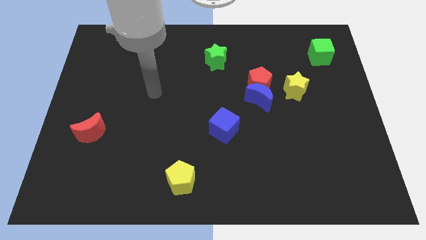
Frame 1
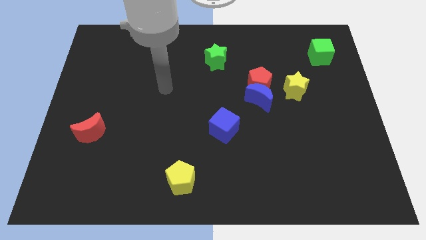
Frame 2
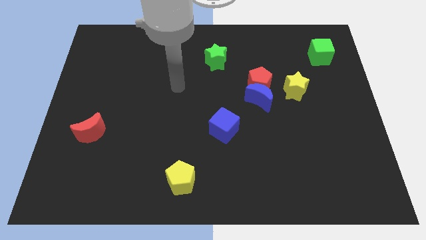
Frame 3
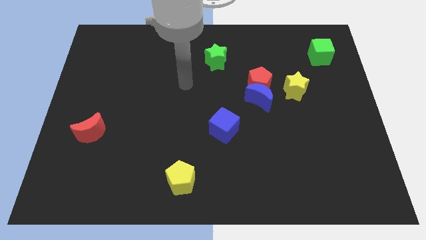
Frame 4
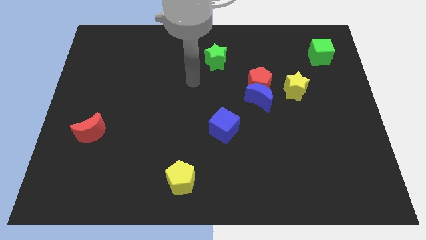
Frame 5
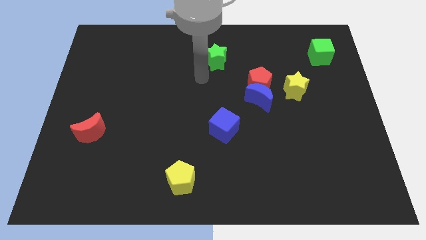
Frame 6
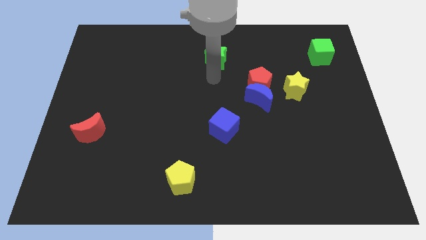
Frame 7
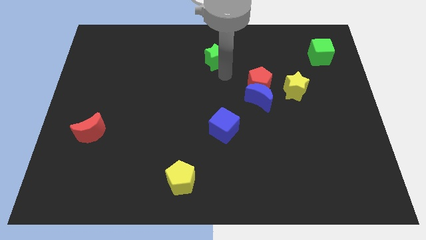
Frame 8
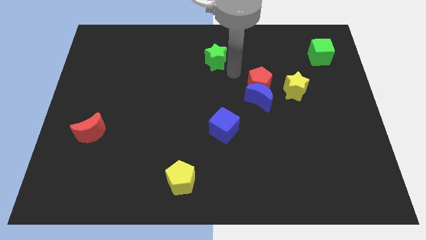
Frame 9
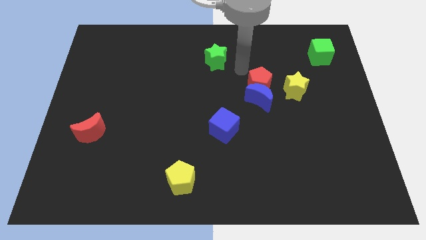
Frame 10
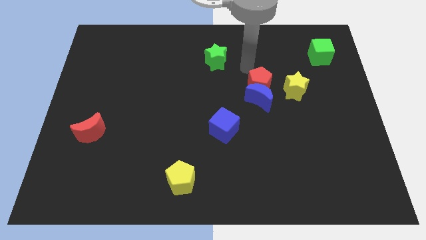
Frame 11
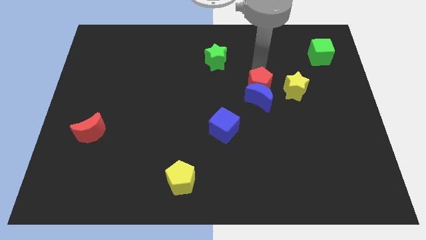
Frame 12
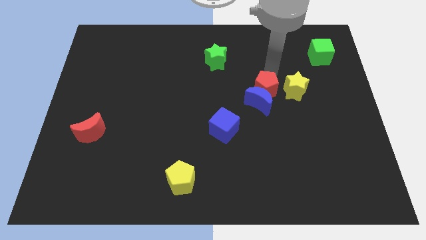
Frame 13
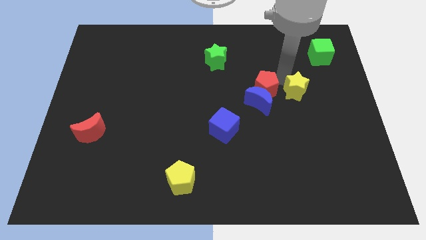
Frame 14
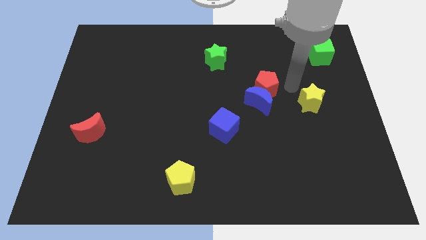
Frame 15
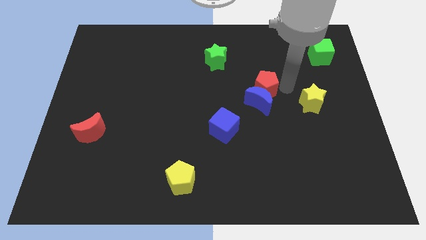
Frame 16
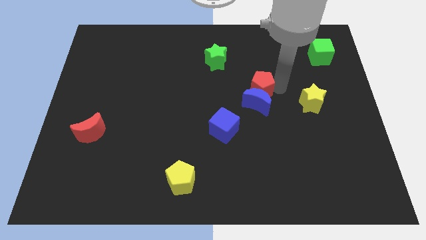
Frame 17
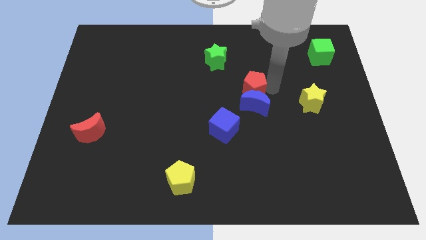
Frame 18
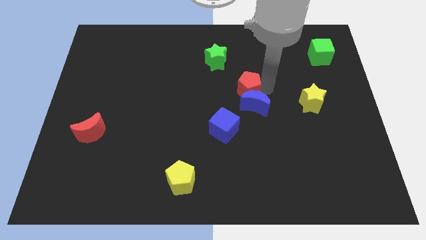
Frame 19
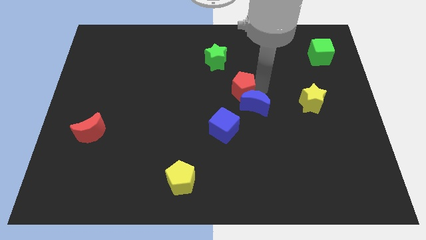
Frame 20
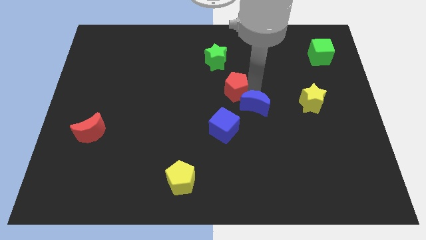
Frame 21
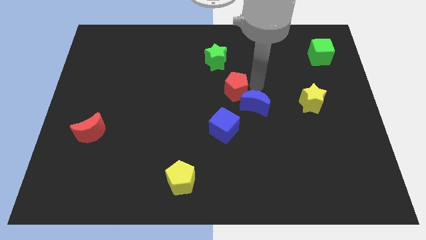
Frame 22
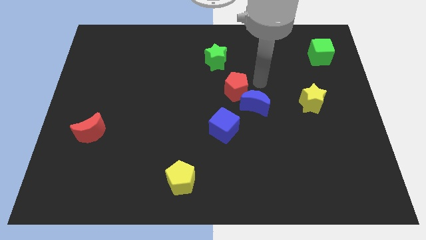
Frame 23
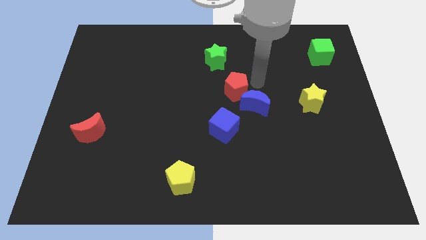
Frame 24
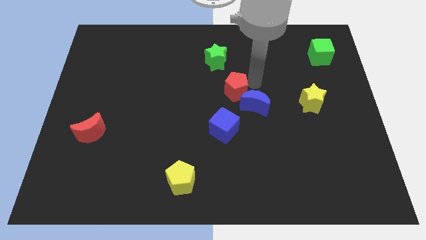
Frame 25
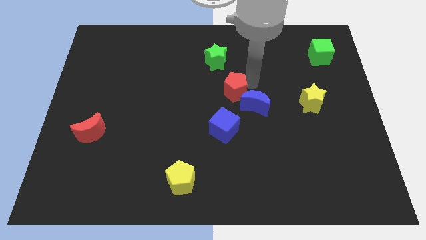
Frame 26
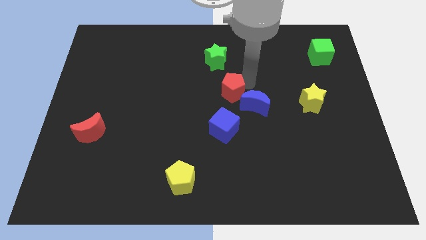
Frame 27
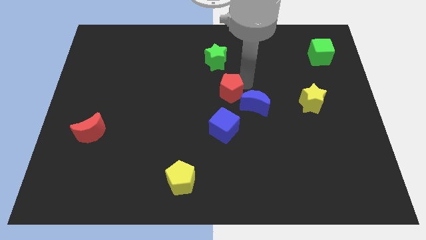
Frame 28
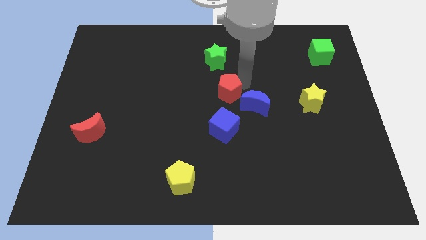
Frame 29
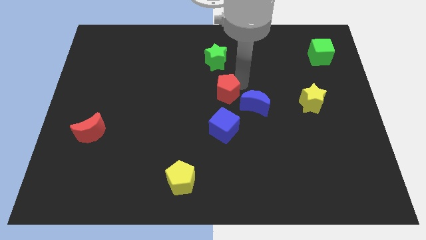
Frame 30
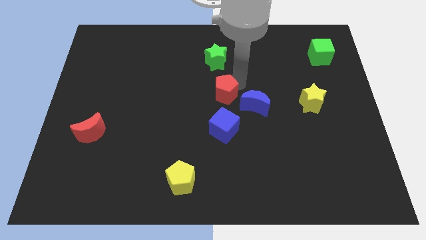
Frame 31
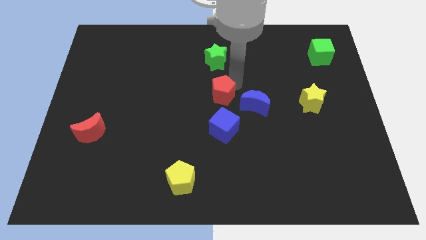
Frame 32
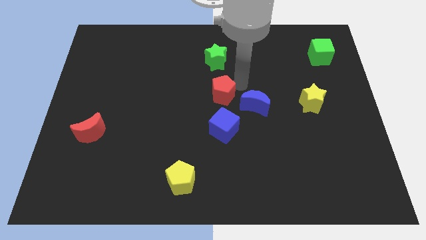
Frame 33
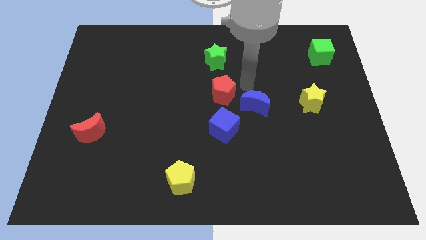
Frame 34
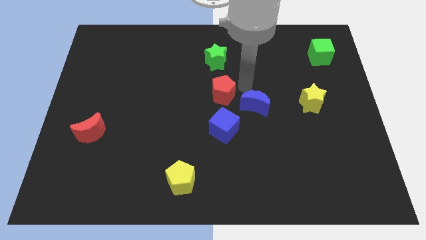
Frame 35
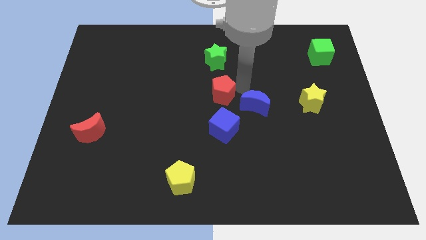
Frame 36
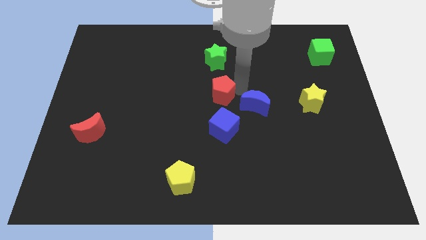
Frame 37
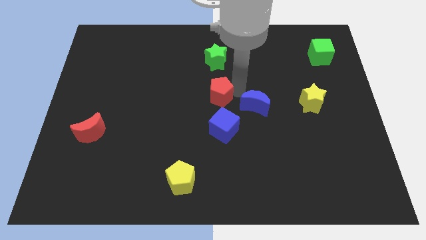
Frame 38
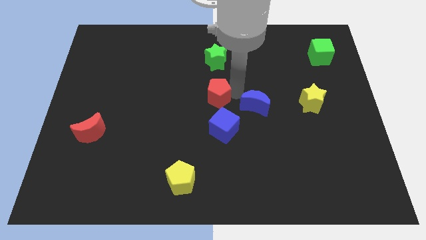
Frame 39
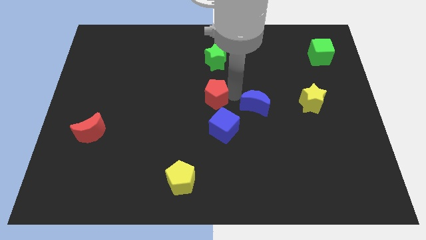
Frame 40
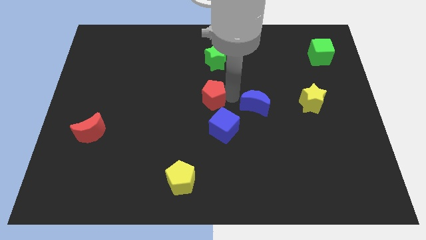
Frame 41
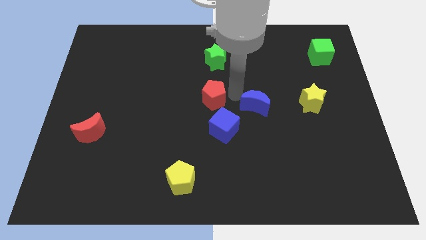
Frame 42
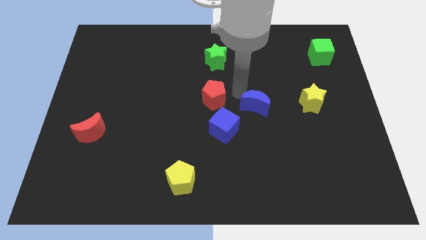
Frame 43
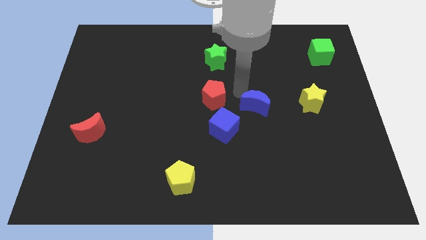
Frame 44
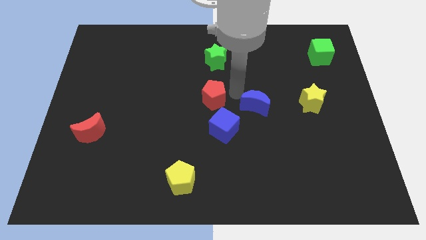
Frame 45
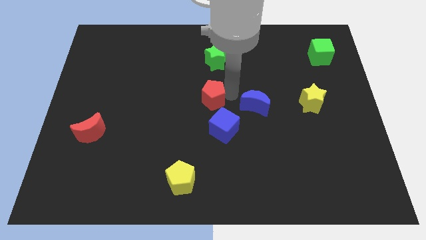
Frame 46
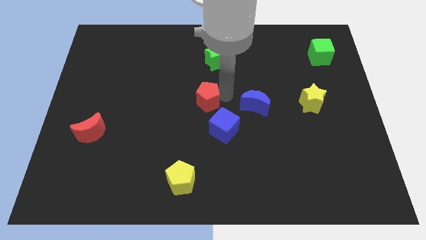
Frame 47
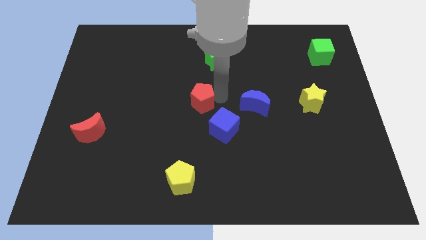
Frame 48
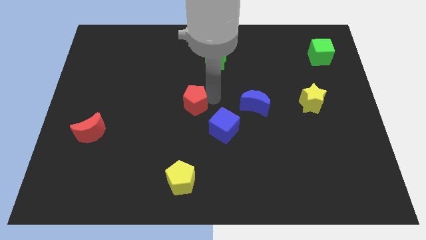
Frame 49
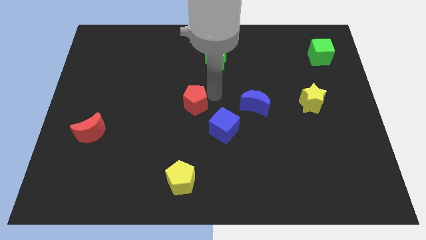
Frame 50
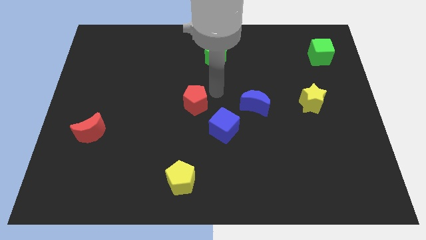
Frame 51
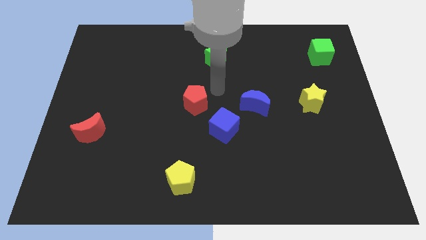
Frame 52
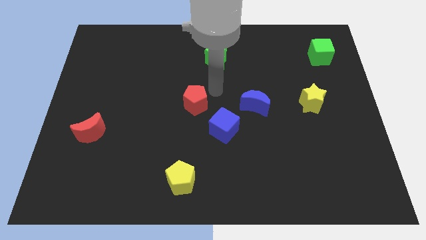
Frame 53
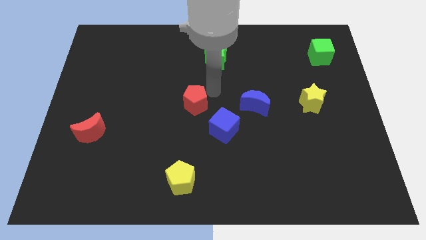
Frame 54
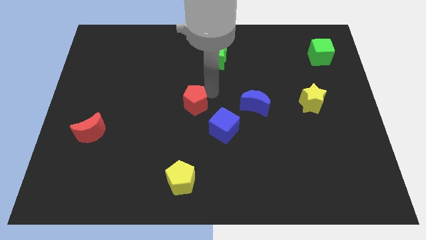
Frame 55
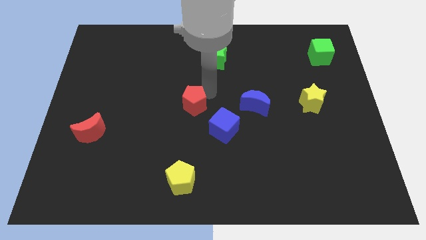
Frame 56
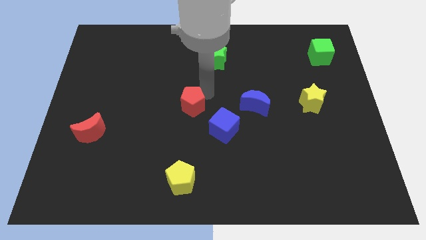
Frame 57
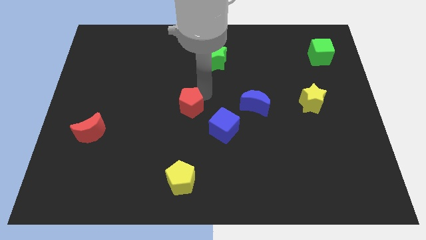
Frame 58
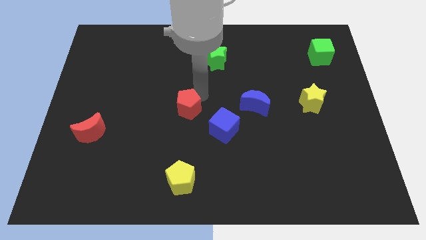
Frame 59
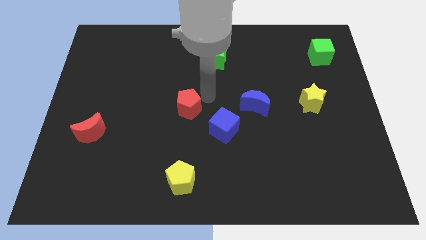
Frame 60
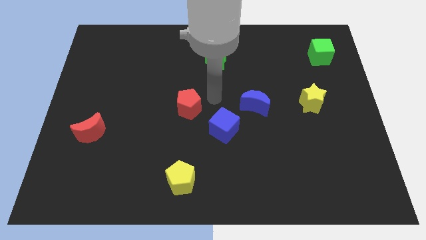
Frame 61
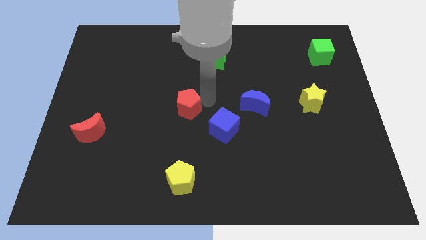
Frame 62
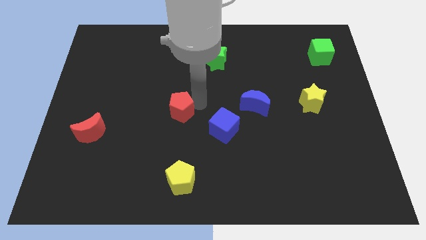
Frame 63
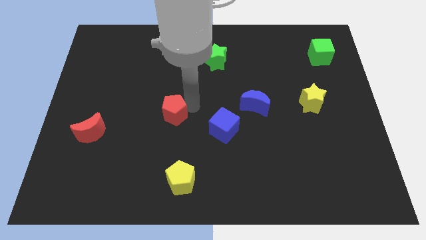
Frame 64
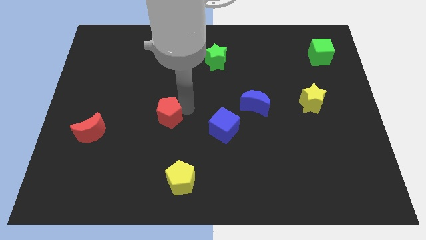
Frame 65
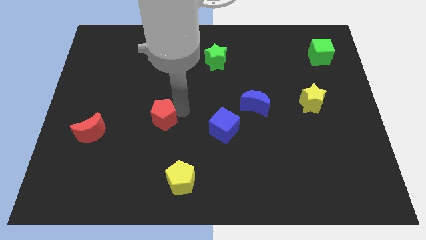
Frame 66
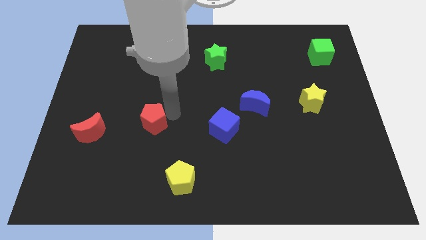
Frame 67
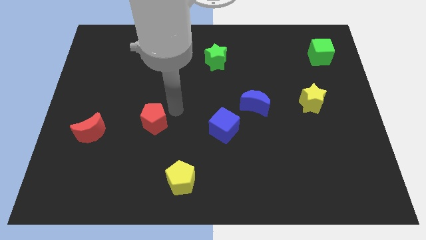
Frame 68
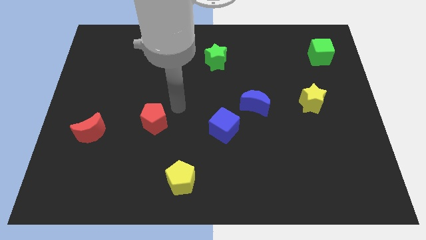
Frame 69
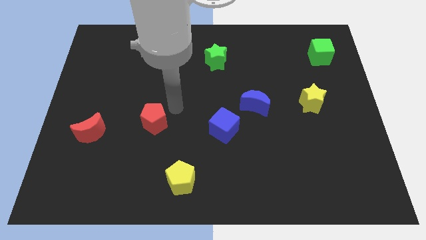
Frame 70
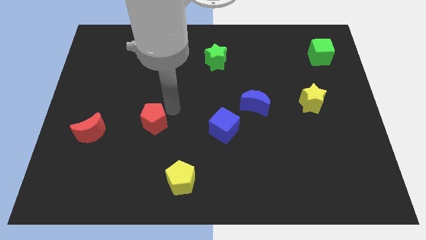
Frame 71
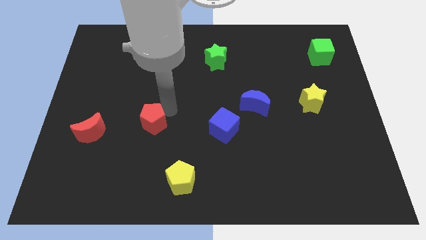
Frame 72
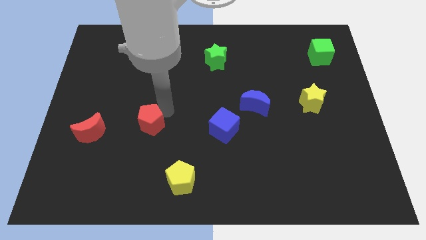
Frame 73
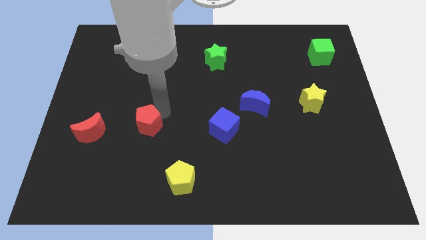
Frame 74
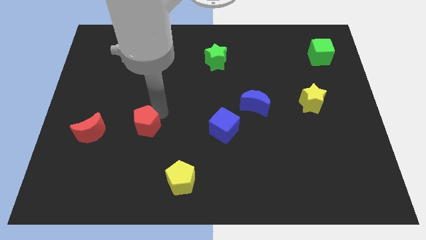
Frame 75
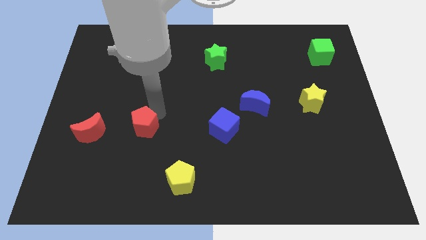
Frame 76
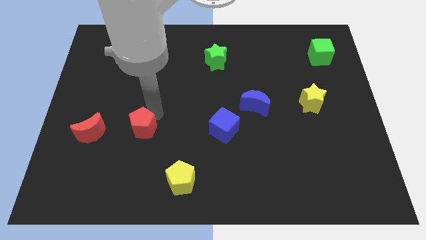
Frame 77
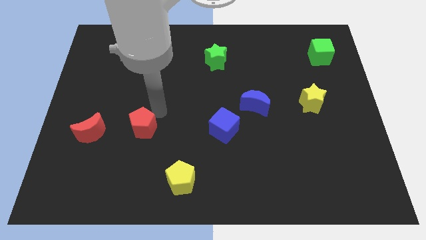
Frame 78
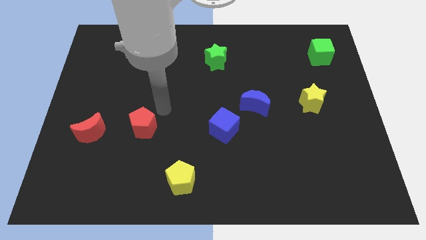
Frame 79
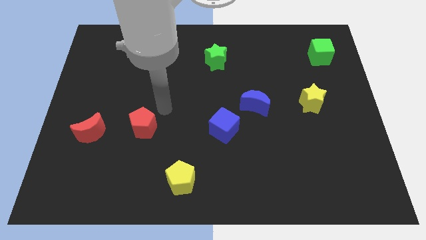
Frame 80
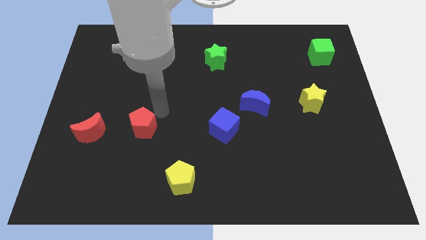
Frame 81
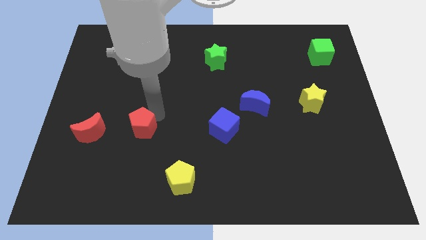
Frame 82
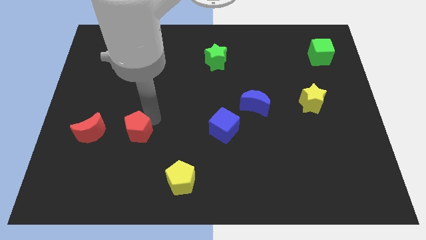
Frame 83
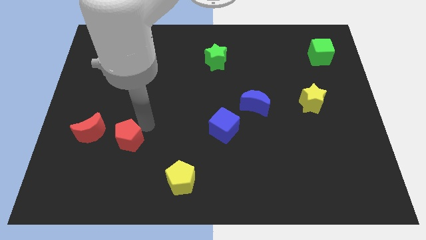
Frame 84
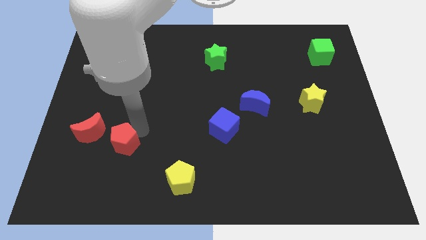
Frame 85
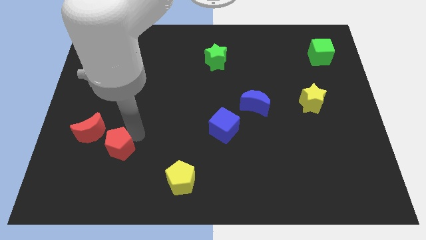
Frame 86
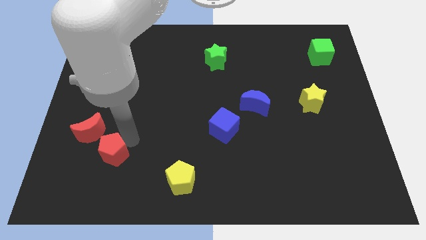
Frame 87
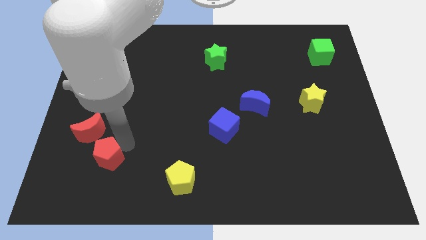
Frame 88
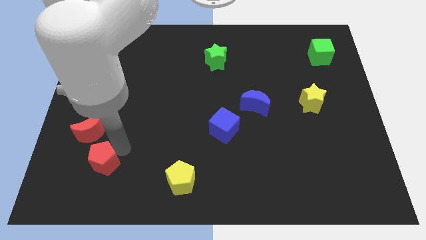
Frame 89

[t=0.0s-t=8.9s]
slide the red pentagon to the bottom side of the red moon
